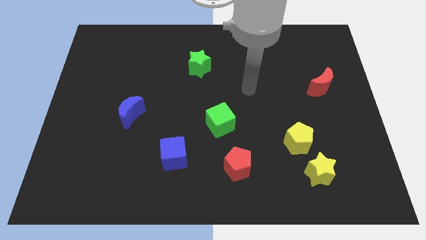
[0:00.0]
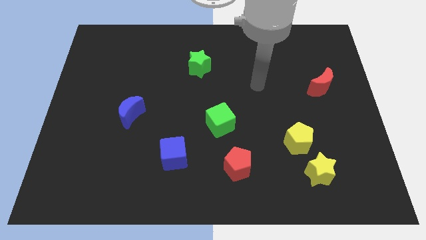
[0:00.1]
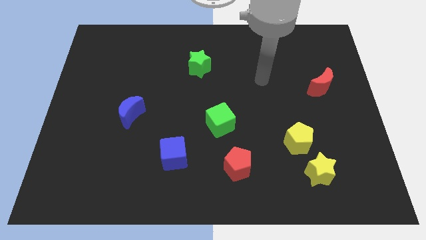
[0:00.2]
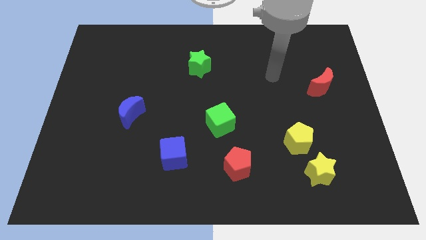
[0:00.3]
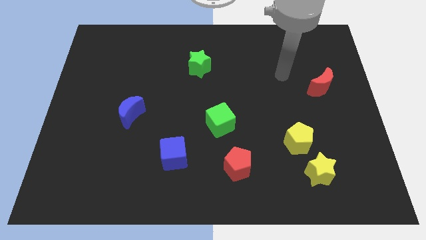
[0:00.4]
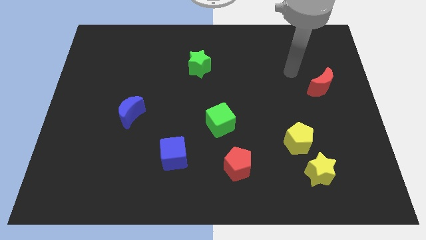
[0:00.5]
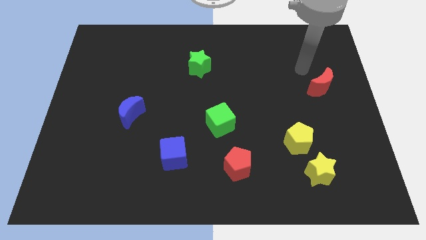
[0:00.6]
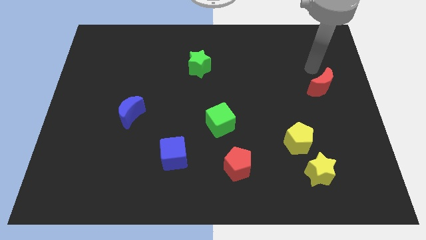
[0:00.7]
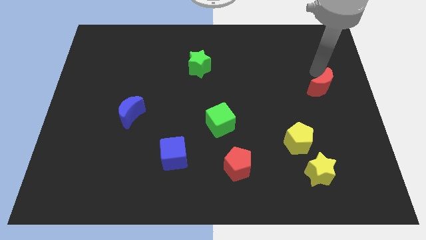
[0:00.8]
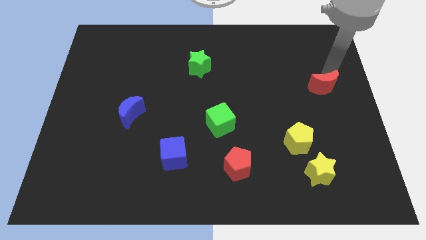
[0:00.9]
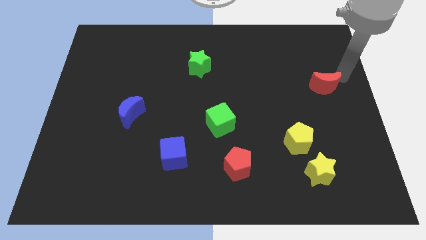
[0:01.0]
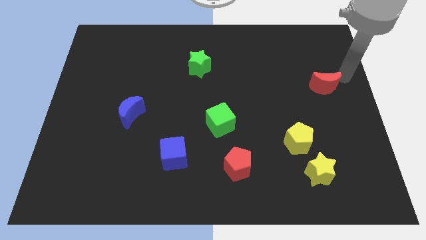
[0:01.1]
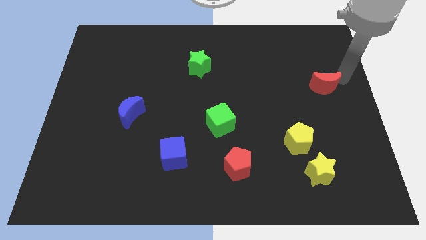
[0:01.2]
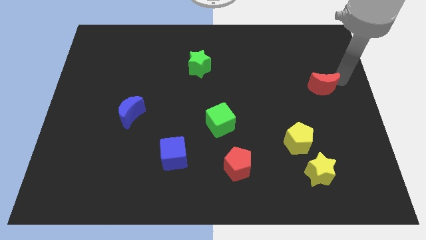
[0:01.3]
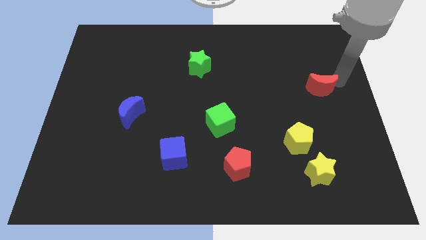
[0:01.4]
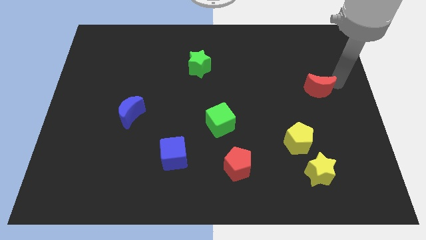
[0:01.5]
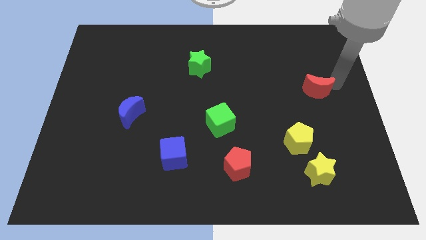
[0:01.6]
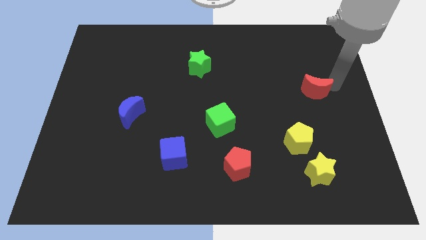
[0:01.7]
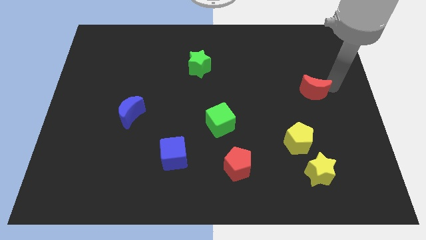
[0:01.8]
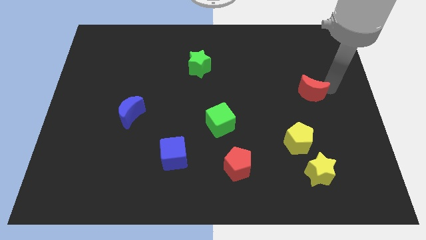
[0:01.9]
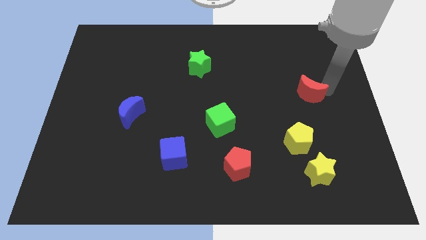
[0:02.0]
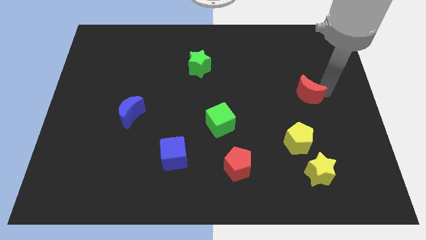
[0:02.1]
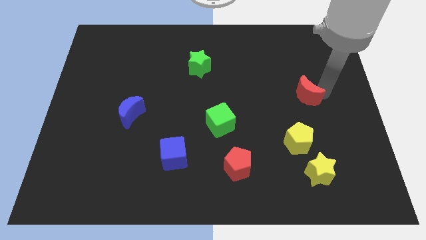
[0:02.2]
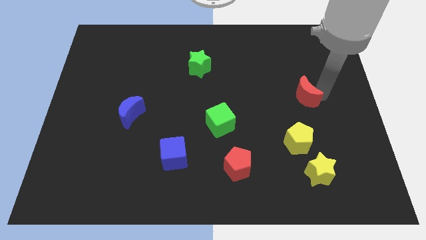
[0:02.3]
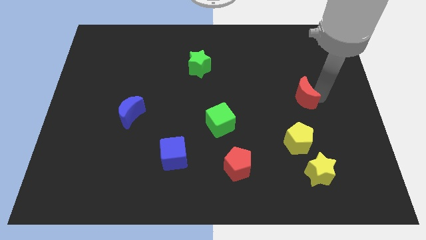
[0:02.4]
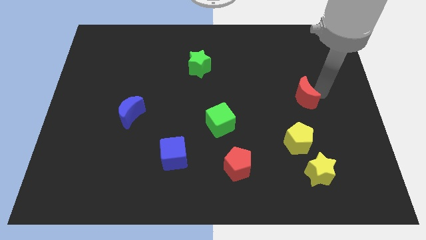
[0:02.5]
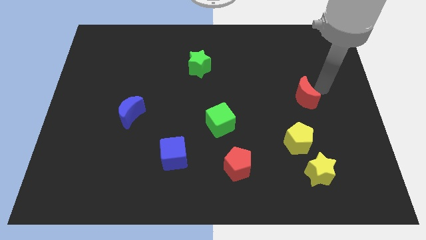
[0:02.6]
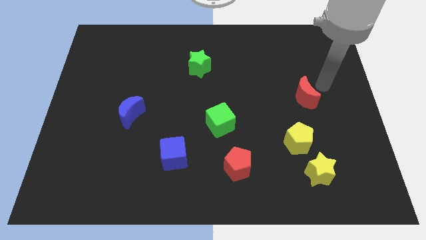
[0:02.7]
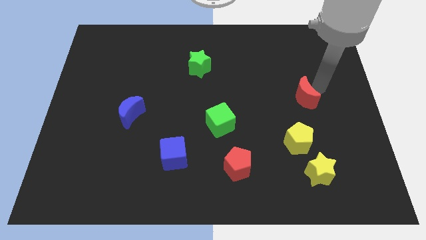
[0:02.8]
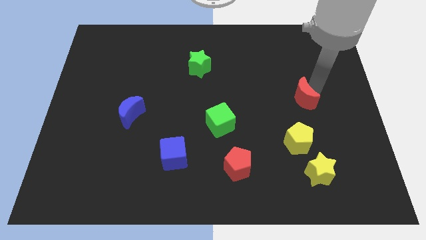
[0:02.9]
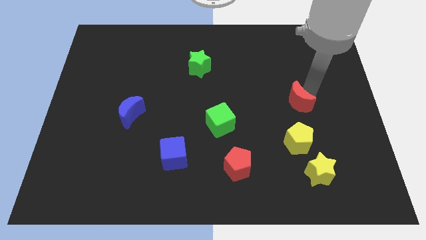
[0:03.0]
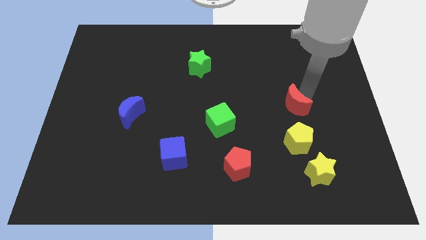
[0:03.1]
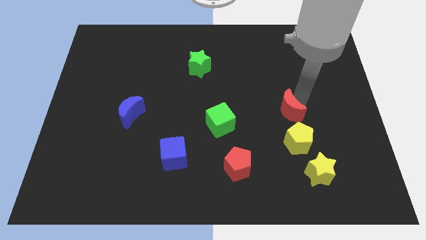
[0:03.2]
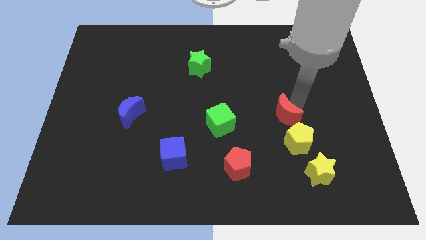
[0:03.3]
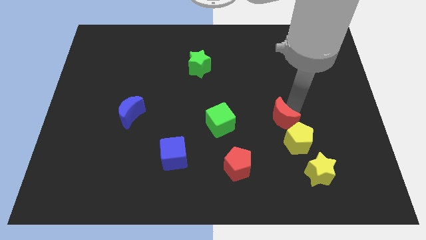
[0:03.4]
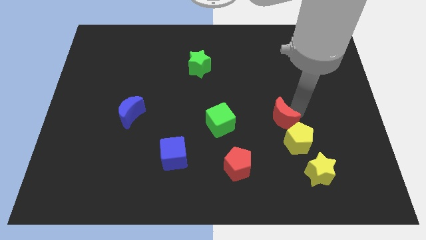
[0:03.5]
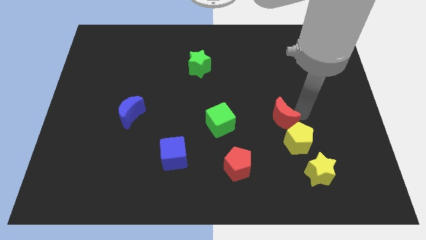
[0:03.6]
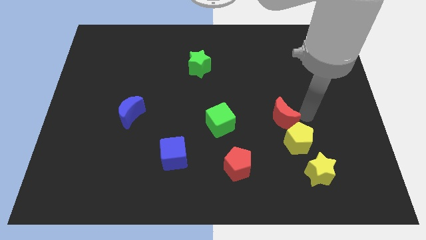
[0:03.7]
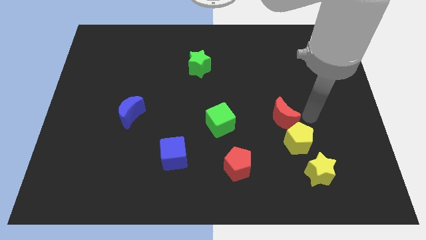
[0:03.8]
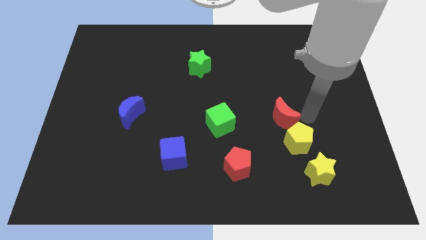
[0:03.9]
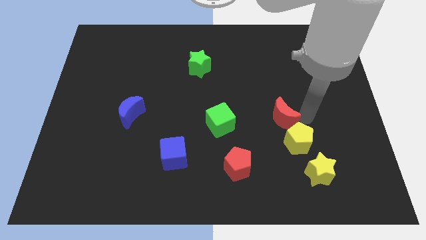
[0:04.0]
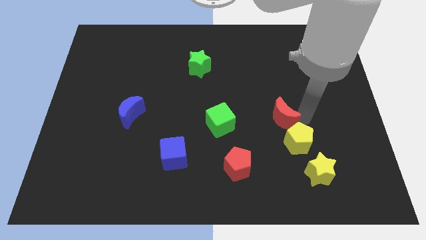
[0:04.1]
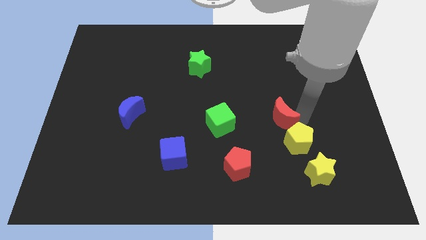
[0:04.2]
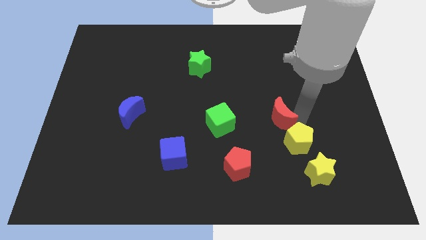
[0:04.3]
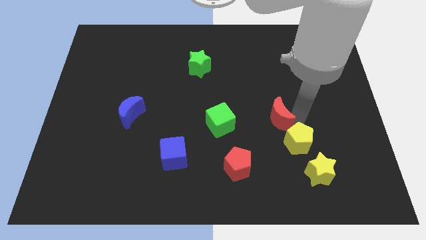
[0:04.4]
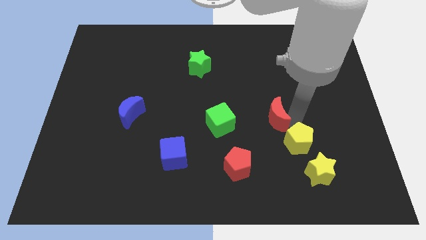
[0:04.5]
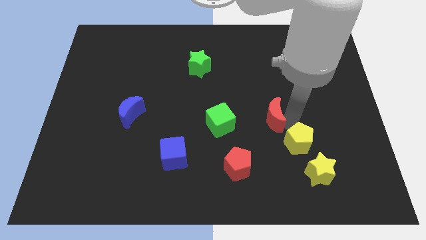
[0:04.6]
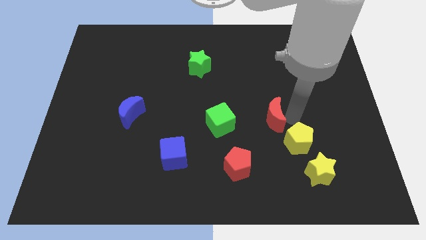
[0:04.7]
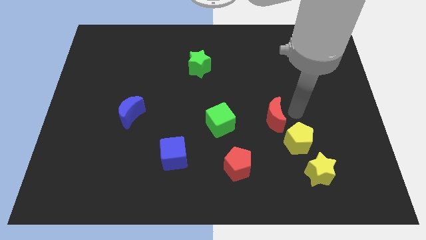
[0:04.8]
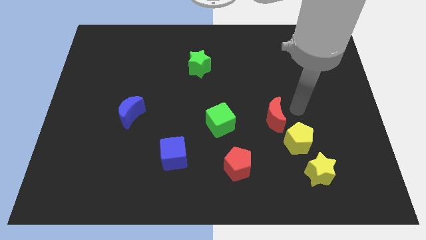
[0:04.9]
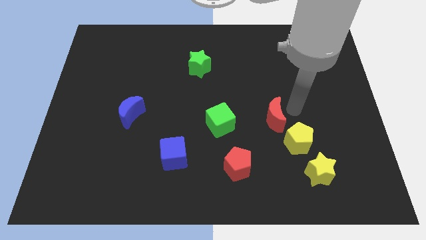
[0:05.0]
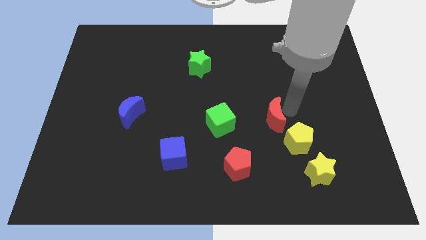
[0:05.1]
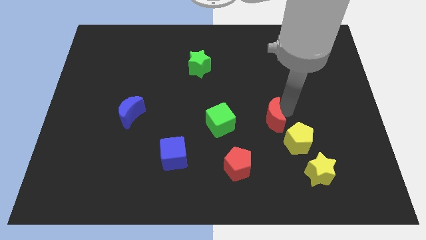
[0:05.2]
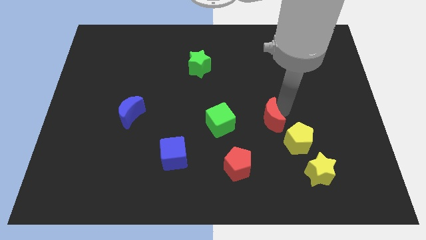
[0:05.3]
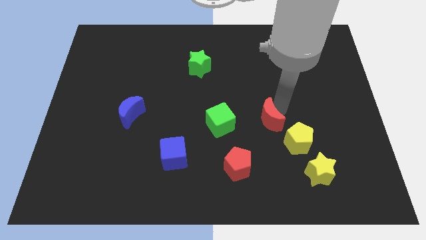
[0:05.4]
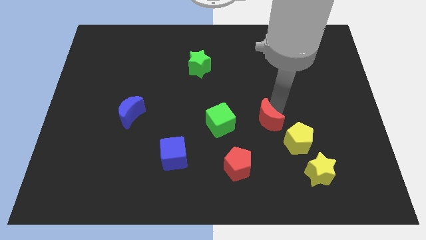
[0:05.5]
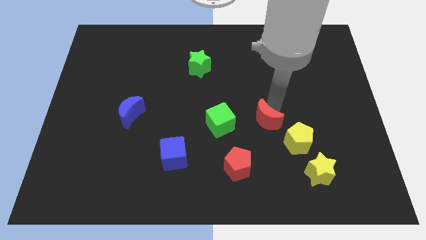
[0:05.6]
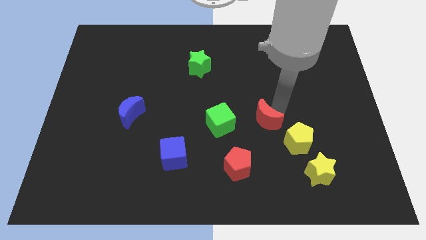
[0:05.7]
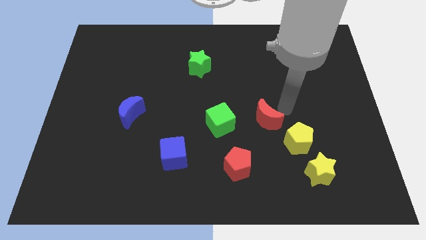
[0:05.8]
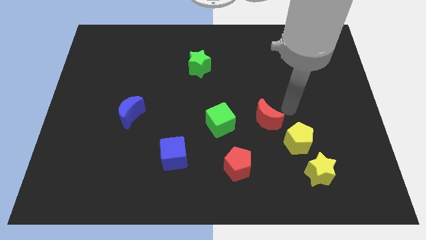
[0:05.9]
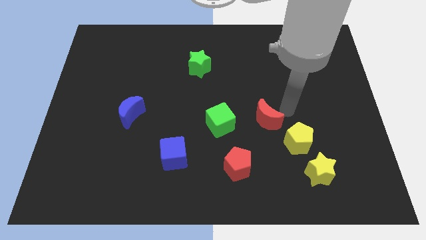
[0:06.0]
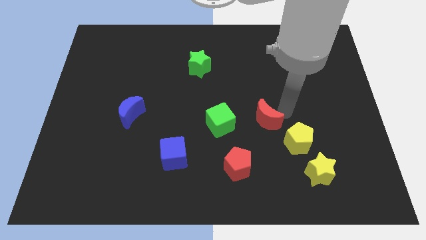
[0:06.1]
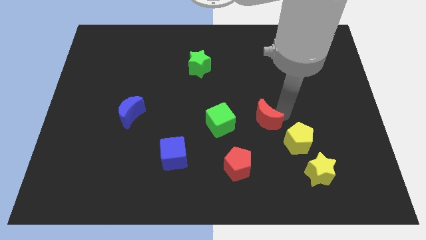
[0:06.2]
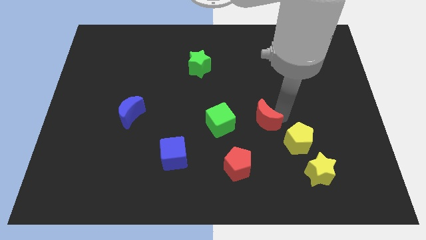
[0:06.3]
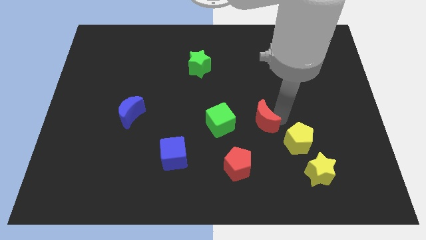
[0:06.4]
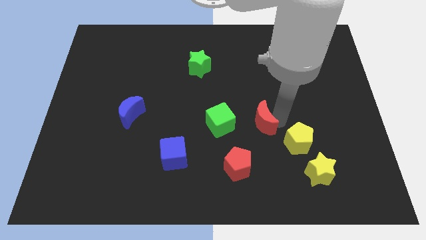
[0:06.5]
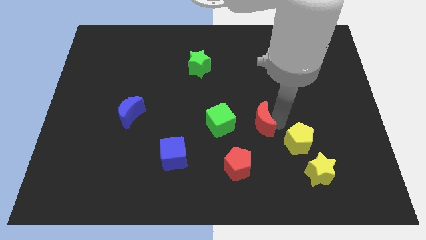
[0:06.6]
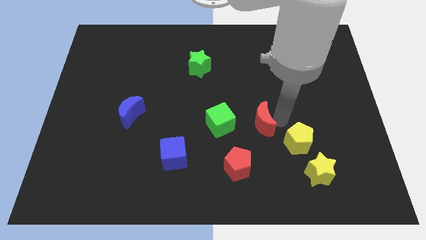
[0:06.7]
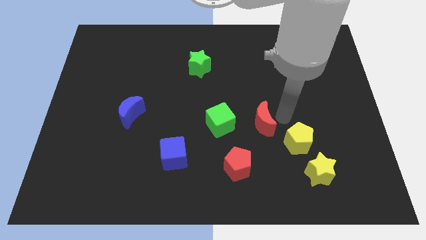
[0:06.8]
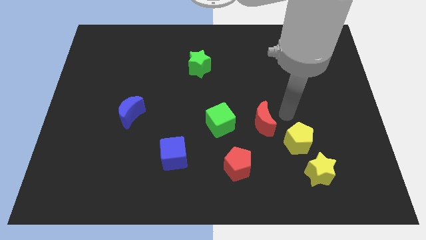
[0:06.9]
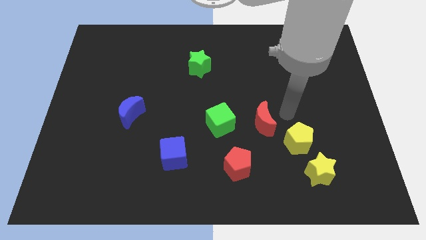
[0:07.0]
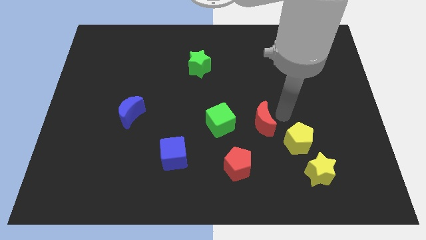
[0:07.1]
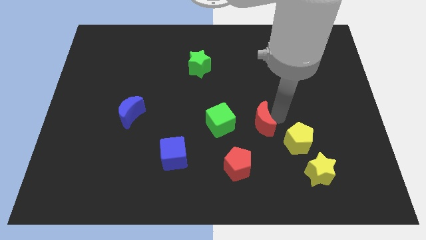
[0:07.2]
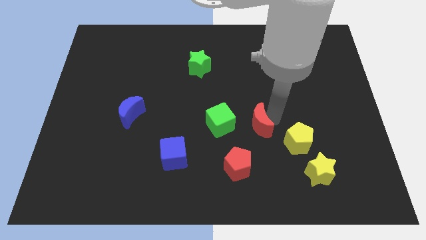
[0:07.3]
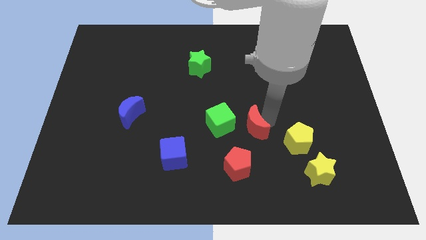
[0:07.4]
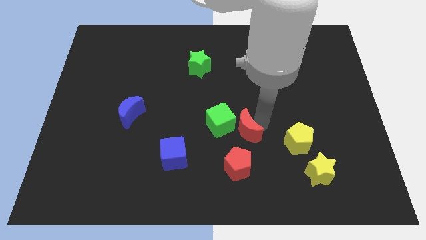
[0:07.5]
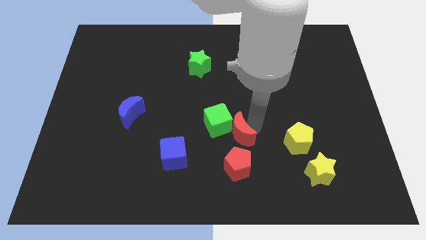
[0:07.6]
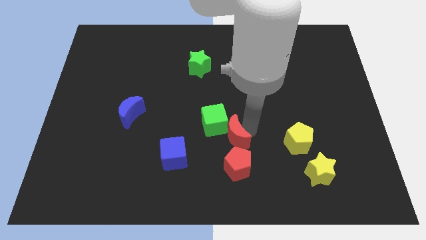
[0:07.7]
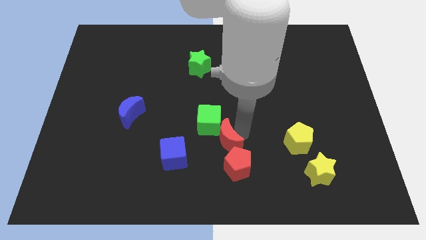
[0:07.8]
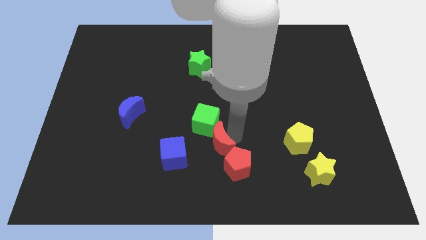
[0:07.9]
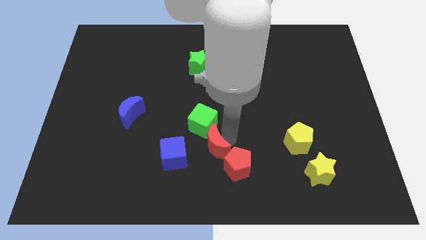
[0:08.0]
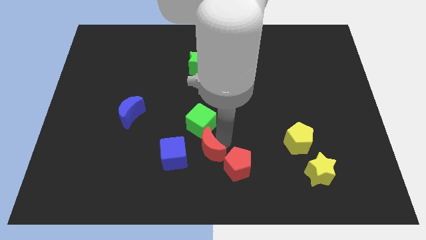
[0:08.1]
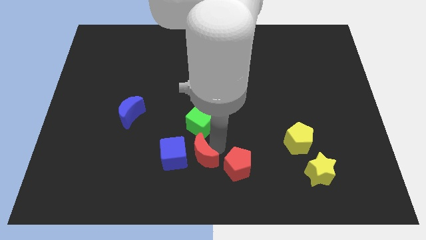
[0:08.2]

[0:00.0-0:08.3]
slide the red moon next to the blue cube
